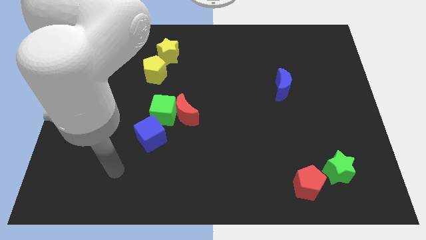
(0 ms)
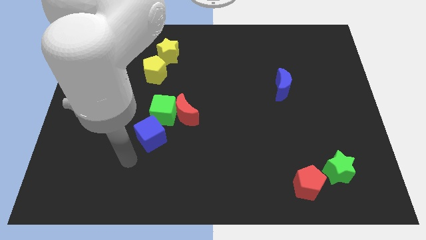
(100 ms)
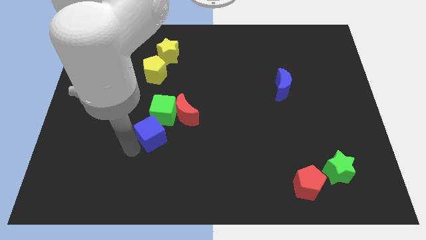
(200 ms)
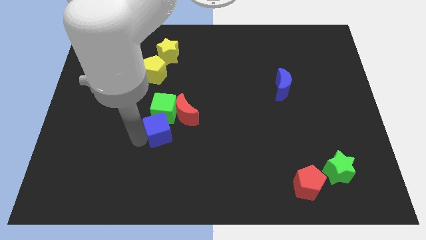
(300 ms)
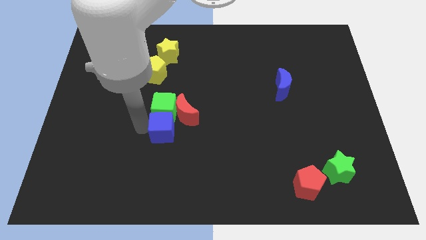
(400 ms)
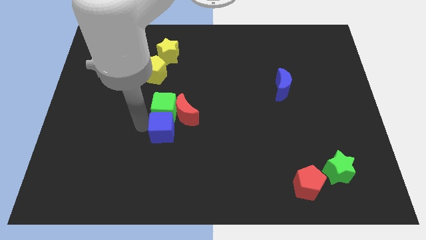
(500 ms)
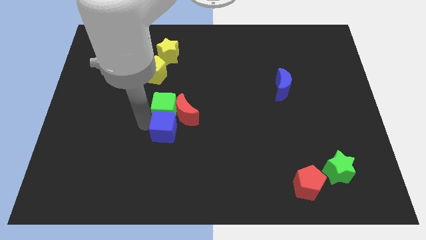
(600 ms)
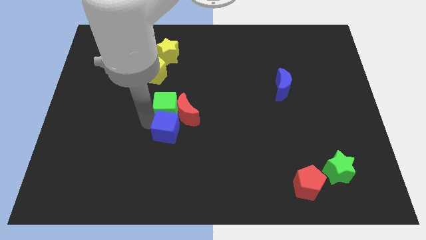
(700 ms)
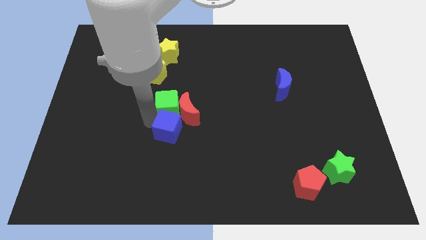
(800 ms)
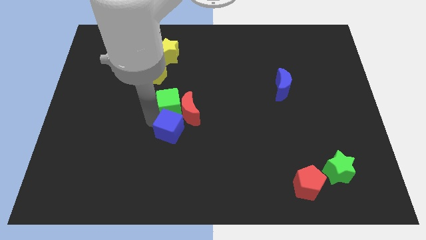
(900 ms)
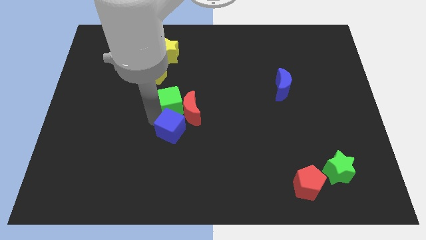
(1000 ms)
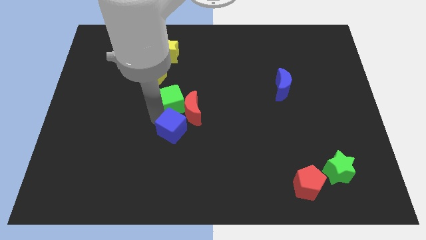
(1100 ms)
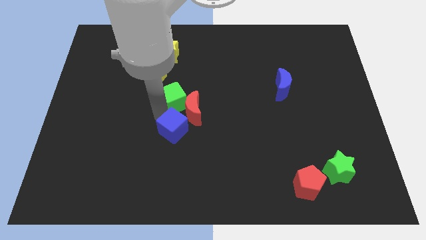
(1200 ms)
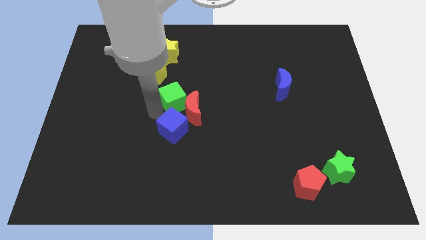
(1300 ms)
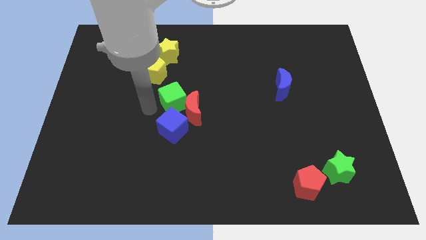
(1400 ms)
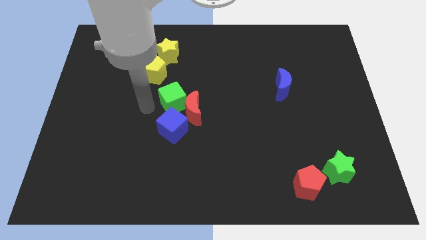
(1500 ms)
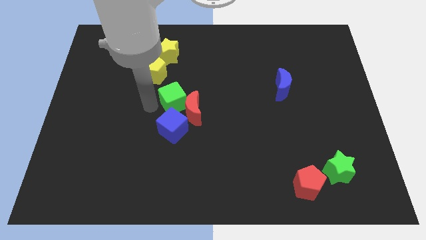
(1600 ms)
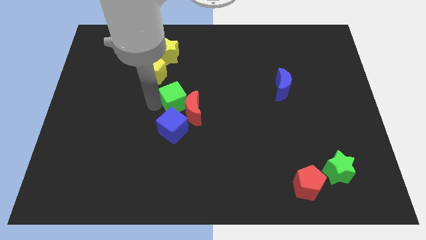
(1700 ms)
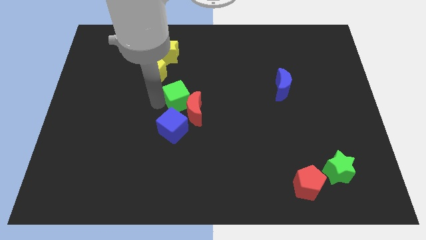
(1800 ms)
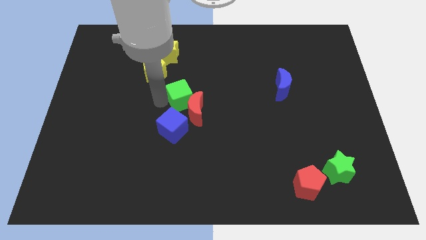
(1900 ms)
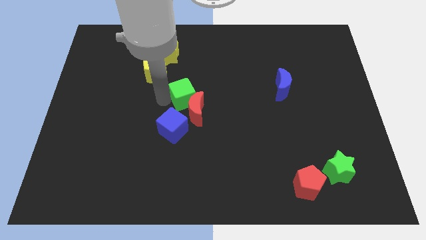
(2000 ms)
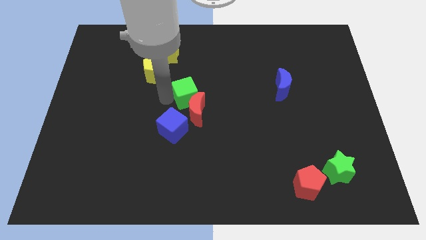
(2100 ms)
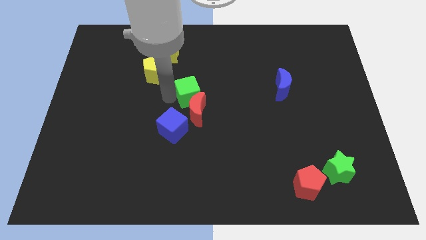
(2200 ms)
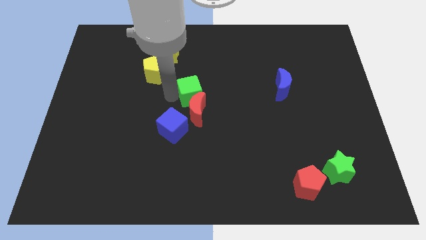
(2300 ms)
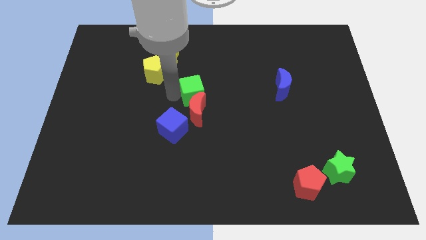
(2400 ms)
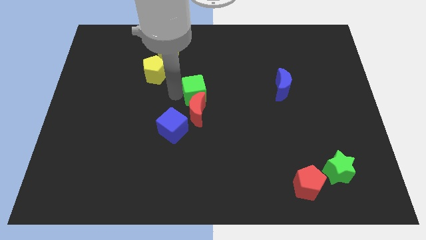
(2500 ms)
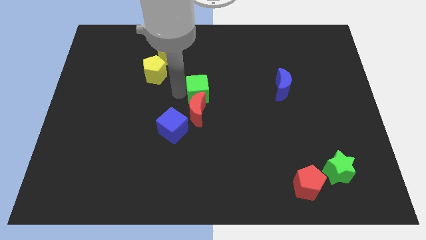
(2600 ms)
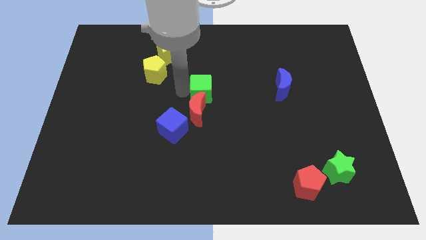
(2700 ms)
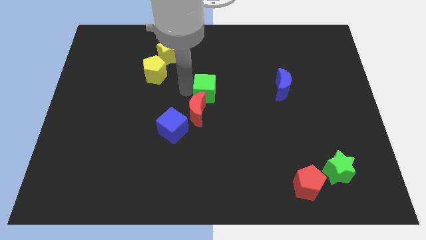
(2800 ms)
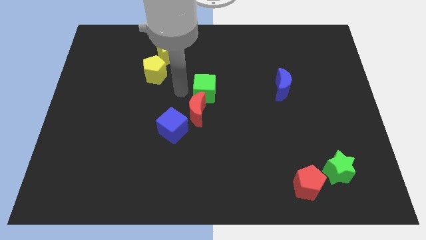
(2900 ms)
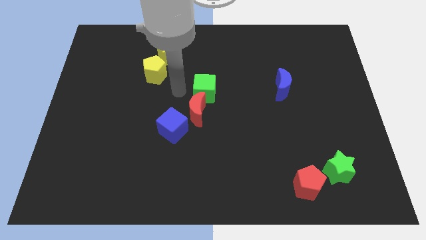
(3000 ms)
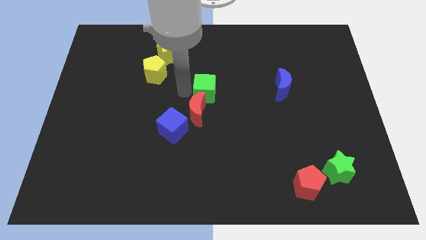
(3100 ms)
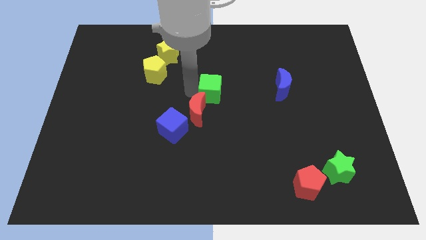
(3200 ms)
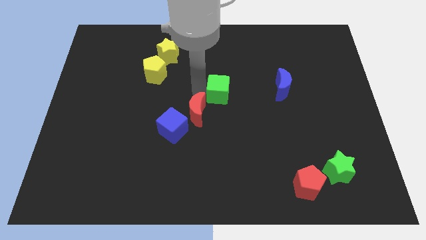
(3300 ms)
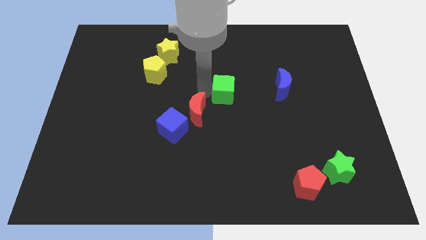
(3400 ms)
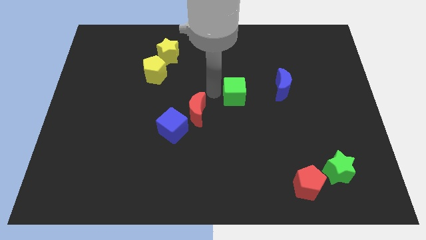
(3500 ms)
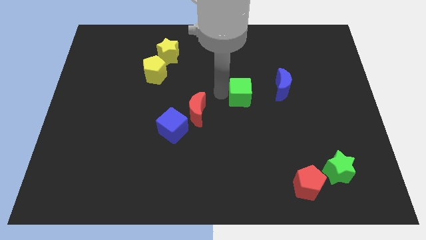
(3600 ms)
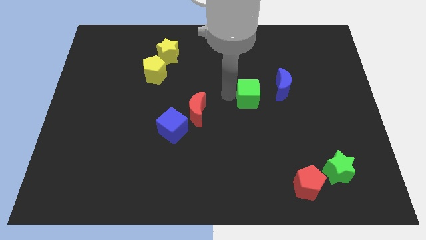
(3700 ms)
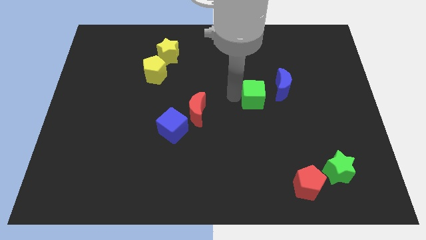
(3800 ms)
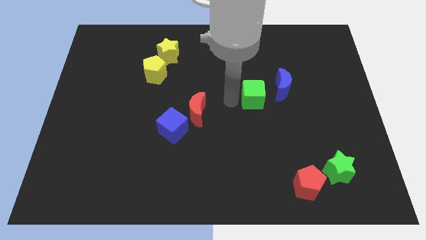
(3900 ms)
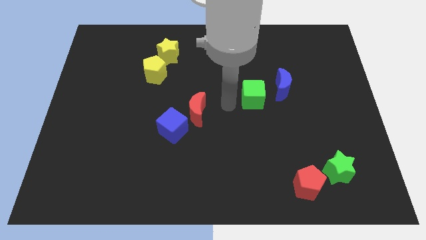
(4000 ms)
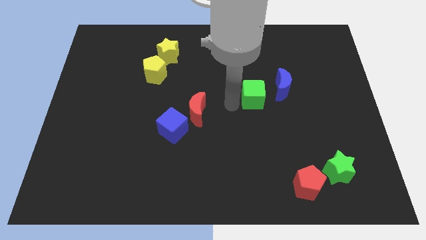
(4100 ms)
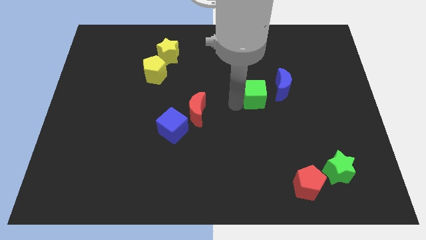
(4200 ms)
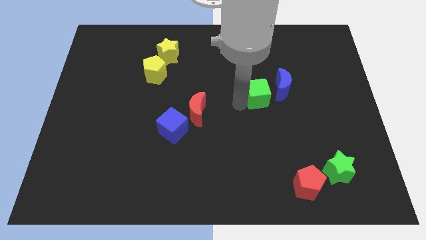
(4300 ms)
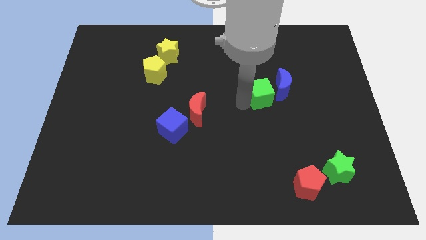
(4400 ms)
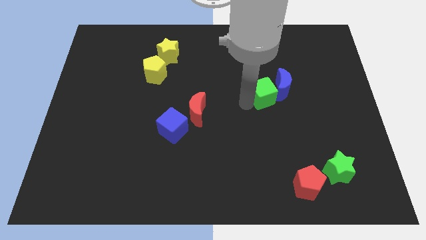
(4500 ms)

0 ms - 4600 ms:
move the green cube to the blue moon

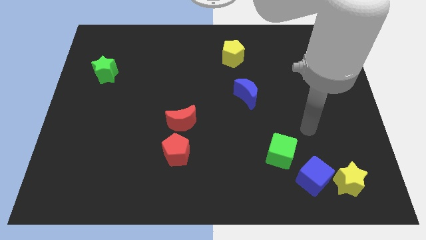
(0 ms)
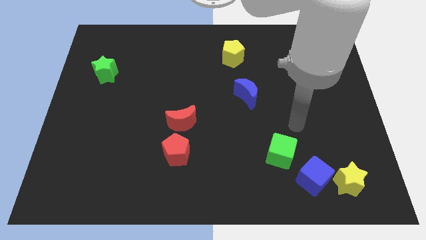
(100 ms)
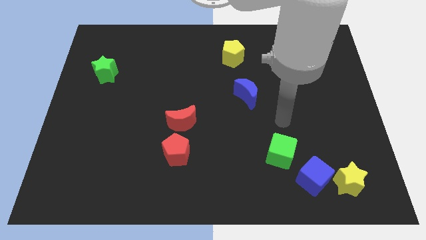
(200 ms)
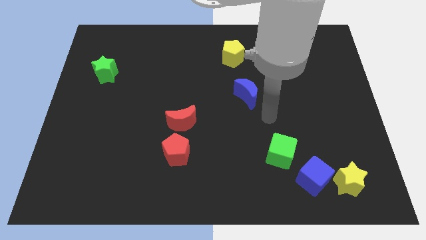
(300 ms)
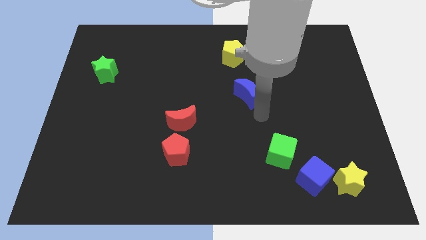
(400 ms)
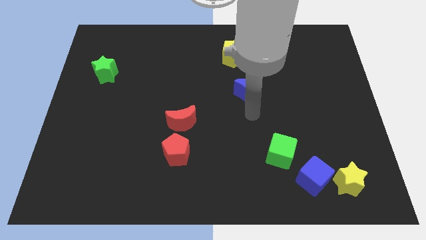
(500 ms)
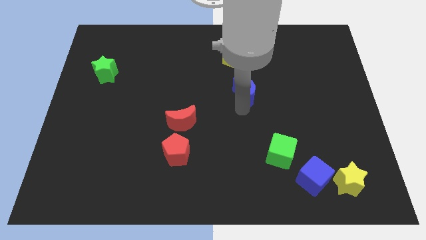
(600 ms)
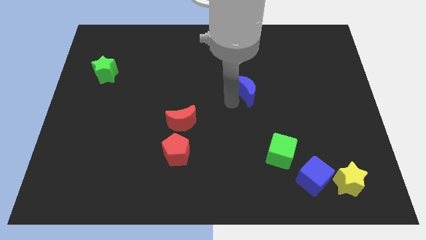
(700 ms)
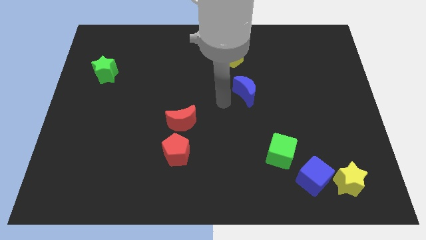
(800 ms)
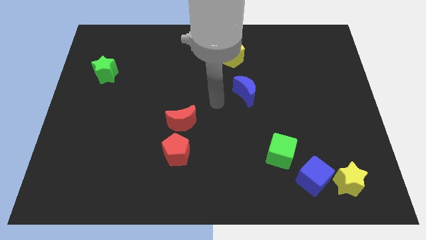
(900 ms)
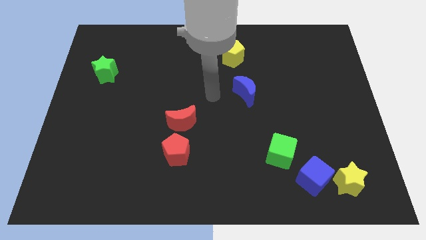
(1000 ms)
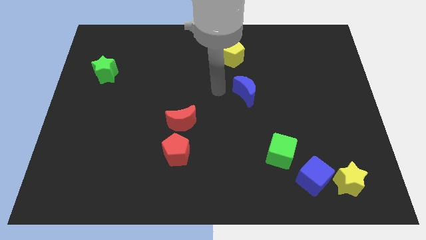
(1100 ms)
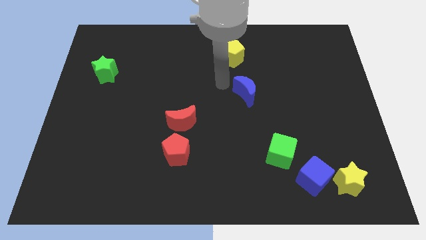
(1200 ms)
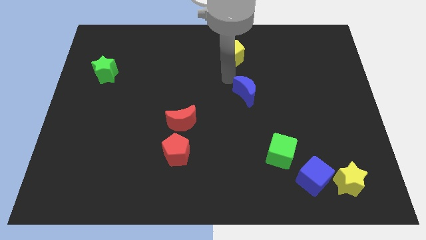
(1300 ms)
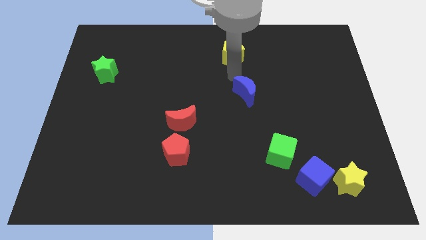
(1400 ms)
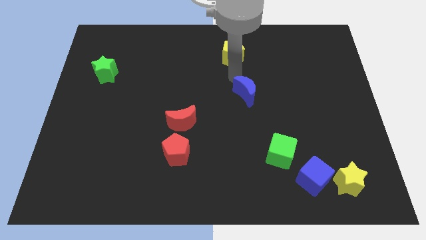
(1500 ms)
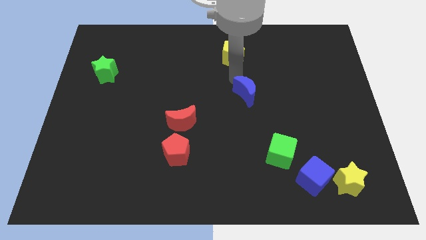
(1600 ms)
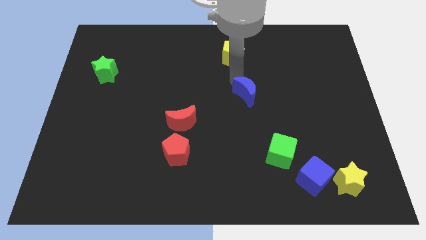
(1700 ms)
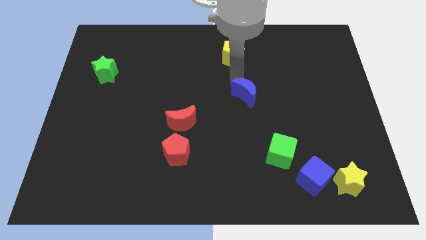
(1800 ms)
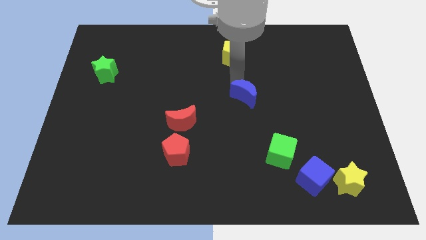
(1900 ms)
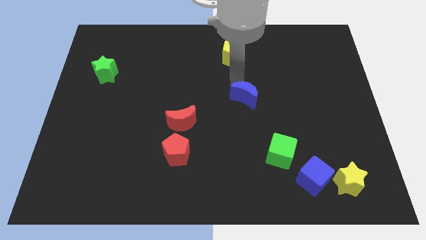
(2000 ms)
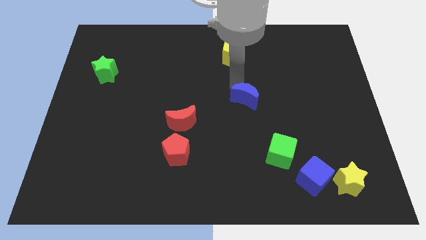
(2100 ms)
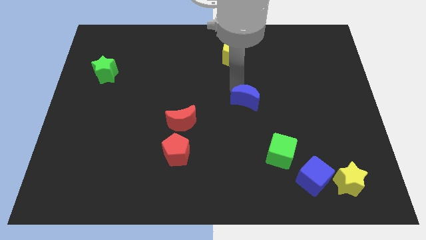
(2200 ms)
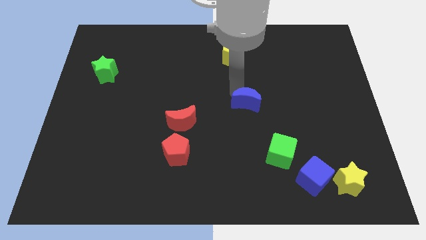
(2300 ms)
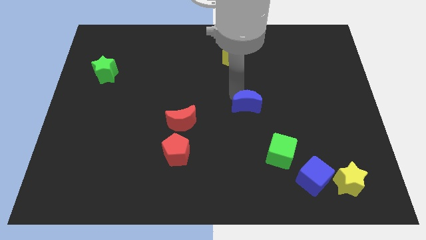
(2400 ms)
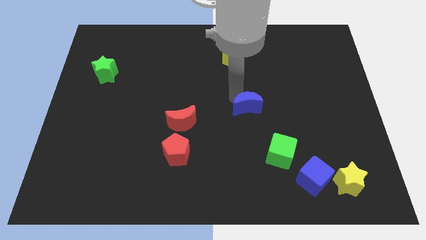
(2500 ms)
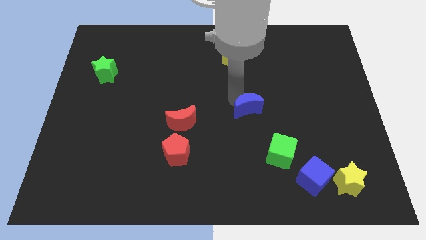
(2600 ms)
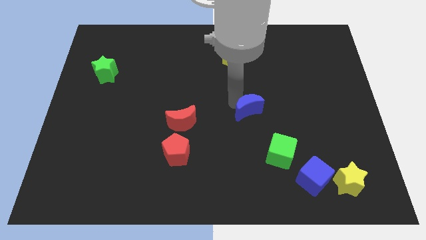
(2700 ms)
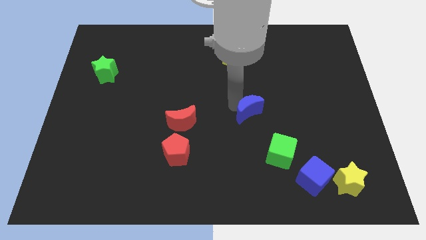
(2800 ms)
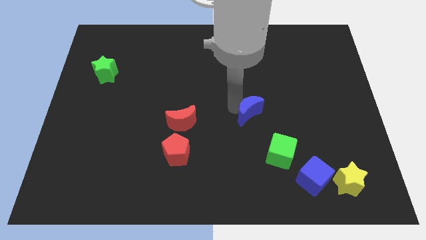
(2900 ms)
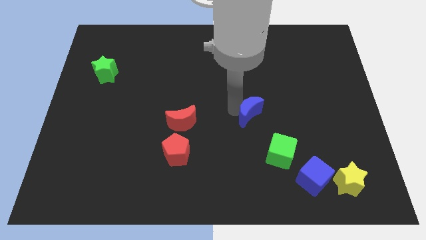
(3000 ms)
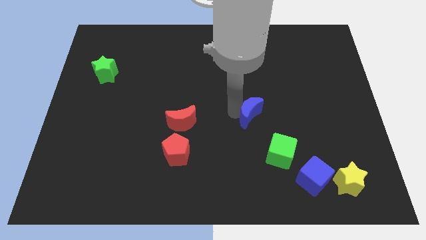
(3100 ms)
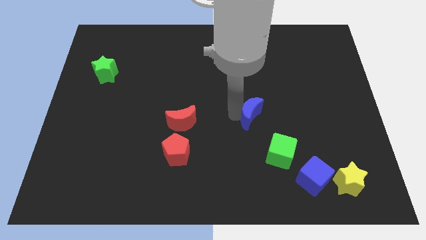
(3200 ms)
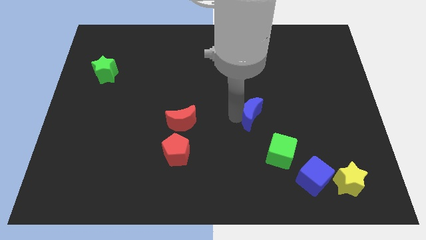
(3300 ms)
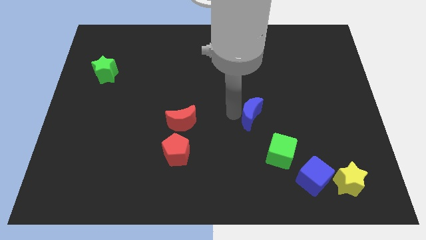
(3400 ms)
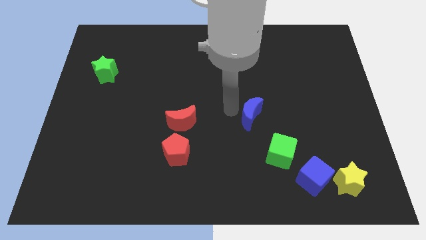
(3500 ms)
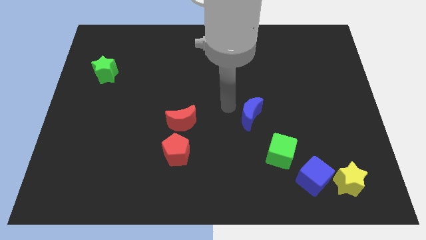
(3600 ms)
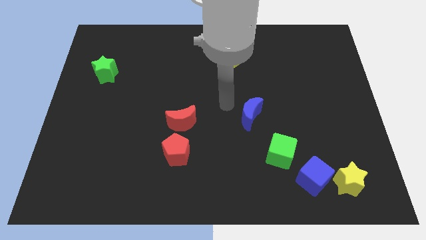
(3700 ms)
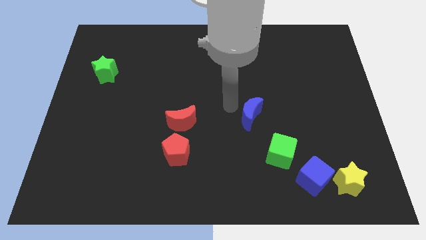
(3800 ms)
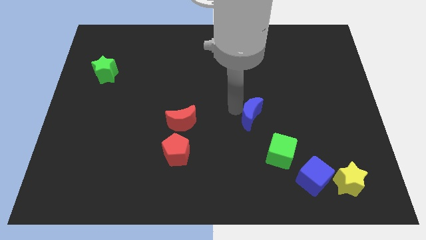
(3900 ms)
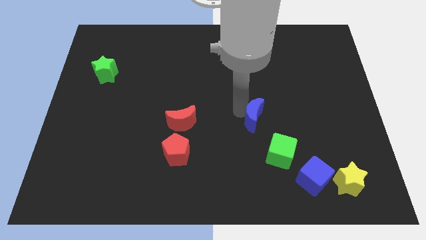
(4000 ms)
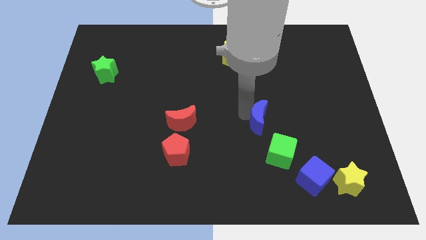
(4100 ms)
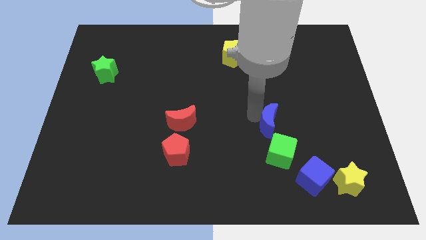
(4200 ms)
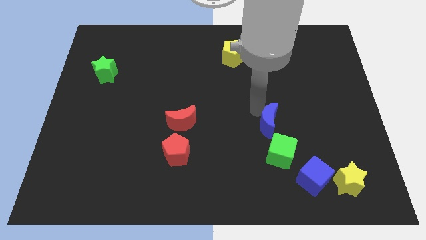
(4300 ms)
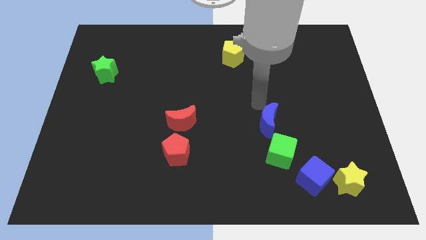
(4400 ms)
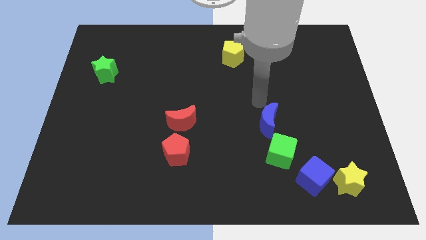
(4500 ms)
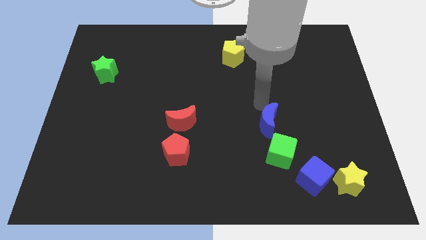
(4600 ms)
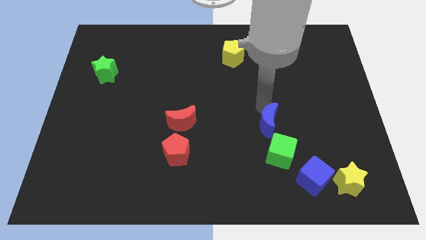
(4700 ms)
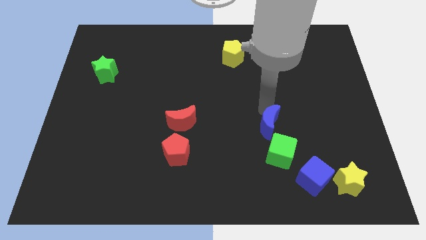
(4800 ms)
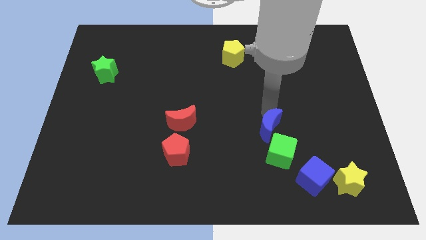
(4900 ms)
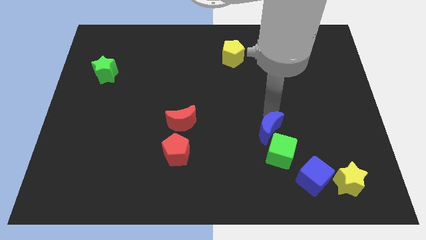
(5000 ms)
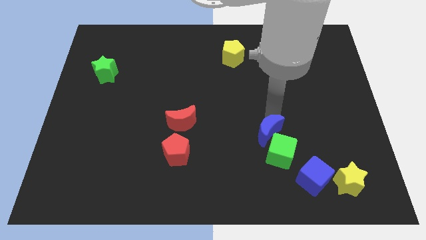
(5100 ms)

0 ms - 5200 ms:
slide the blue moon to the green cube
